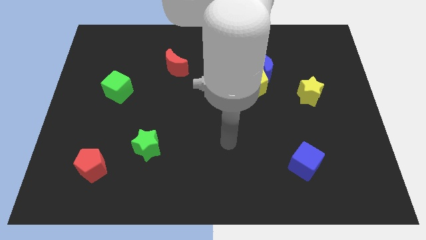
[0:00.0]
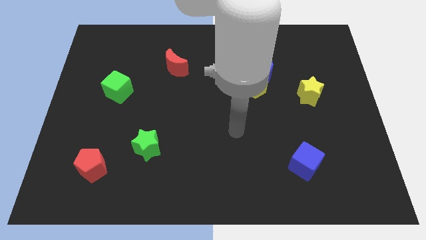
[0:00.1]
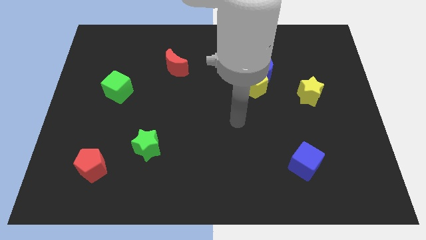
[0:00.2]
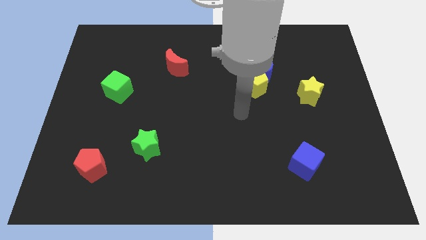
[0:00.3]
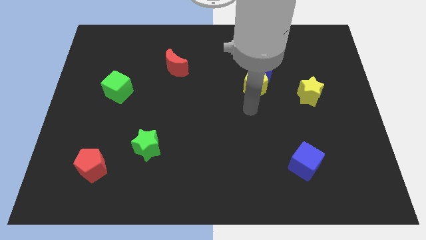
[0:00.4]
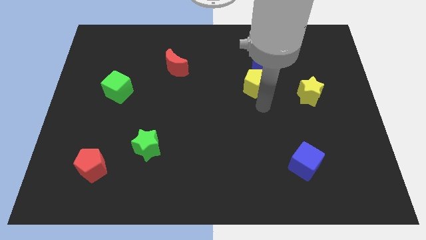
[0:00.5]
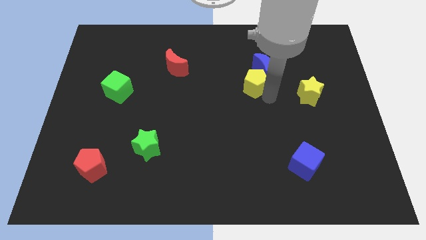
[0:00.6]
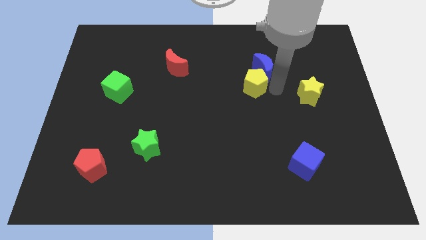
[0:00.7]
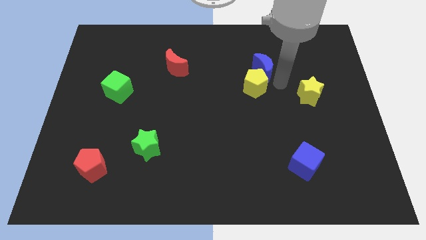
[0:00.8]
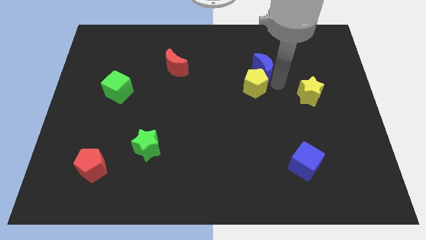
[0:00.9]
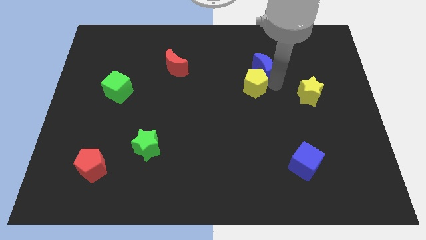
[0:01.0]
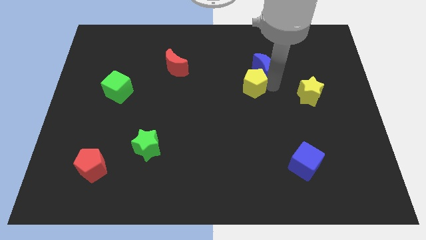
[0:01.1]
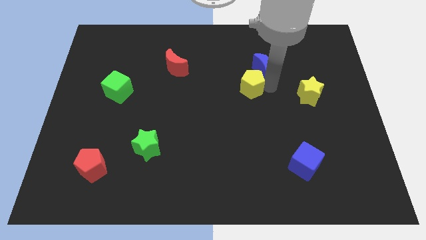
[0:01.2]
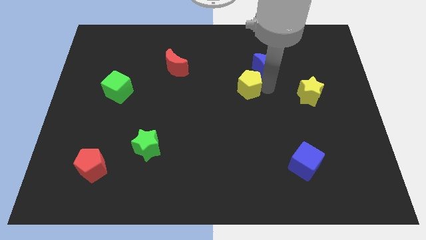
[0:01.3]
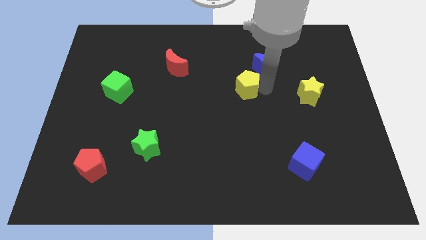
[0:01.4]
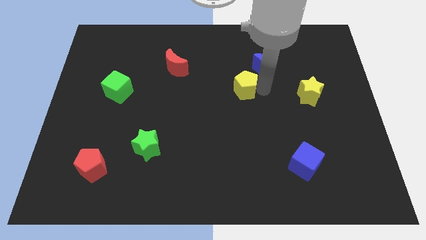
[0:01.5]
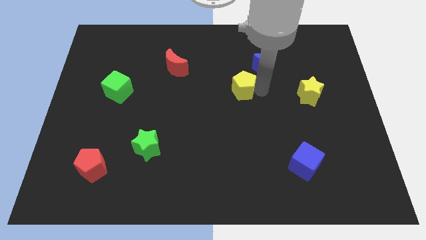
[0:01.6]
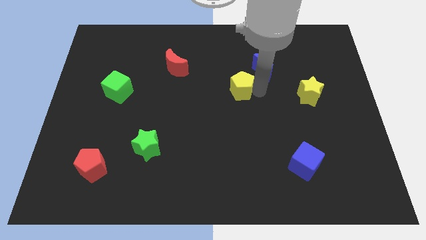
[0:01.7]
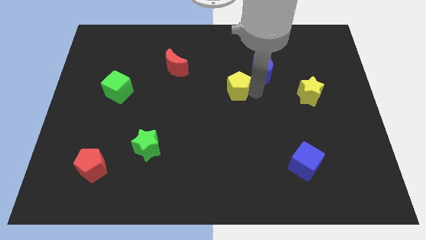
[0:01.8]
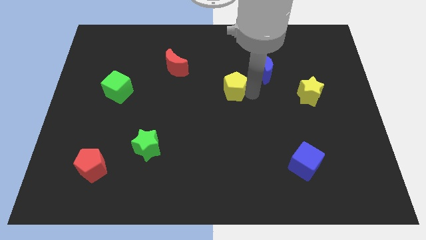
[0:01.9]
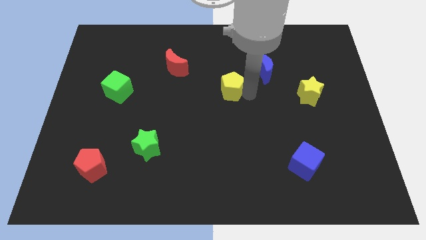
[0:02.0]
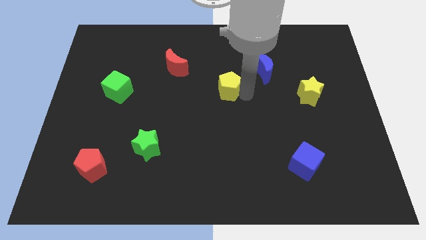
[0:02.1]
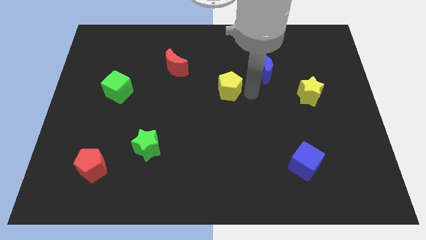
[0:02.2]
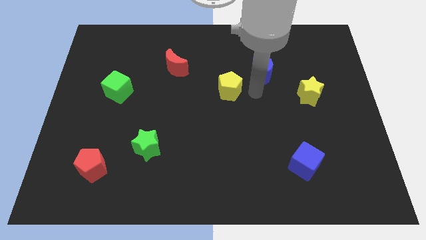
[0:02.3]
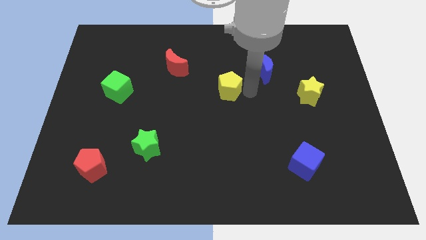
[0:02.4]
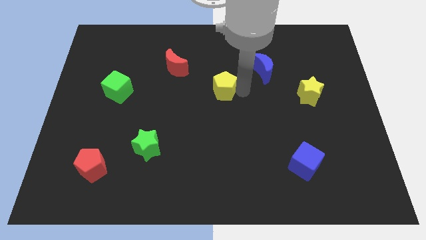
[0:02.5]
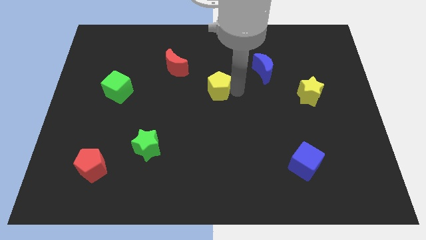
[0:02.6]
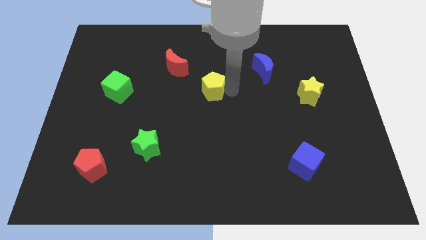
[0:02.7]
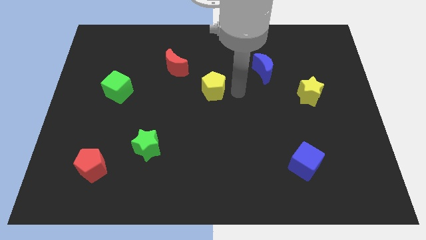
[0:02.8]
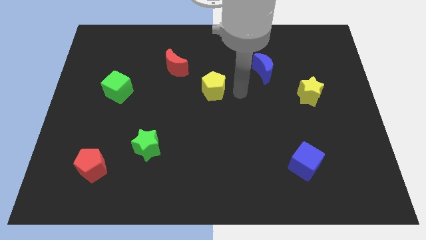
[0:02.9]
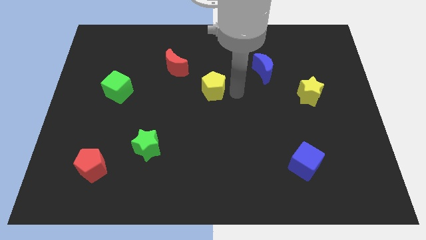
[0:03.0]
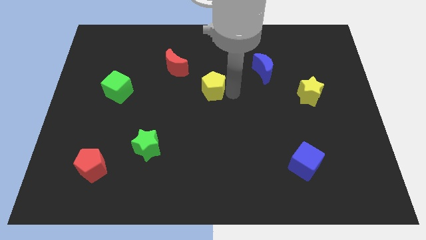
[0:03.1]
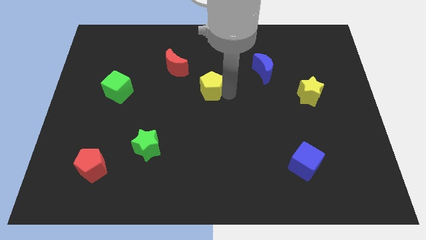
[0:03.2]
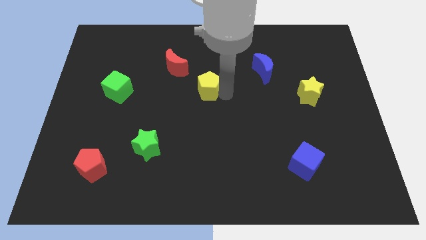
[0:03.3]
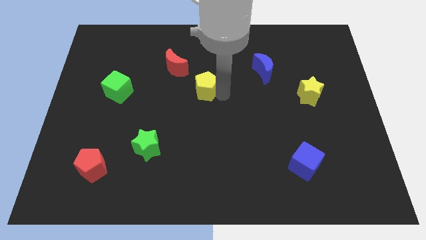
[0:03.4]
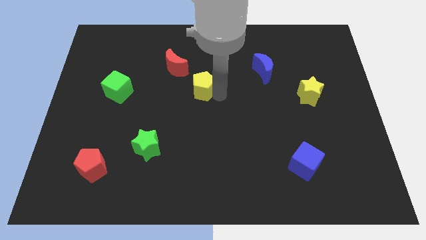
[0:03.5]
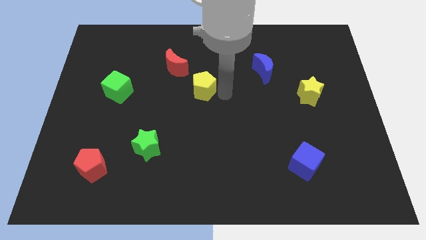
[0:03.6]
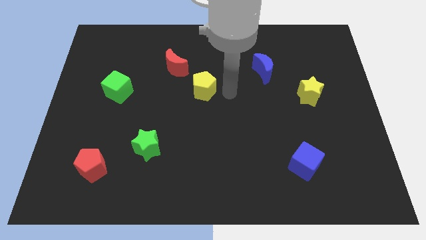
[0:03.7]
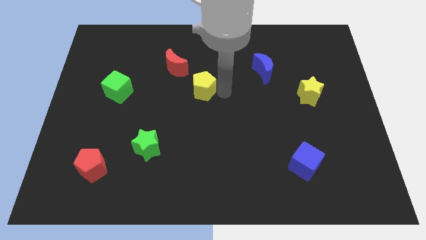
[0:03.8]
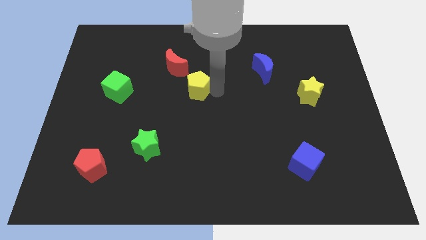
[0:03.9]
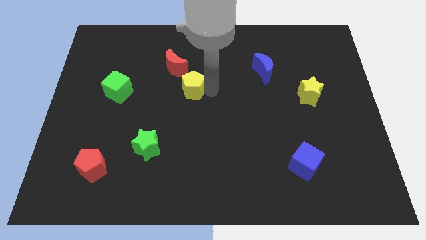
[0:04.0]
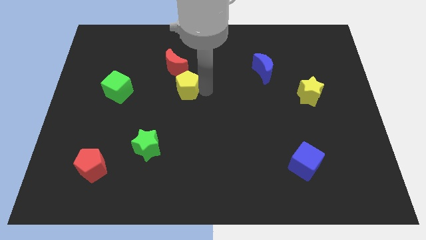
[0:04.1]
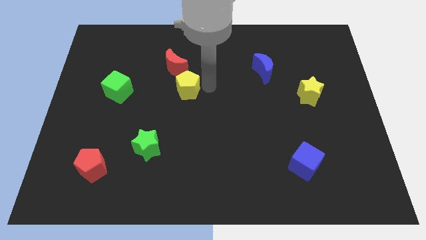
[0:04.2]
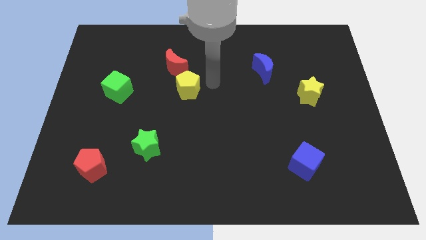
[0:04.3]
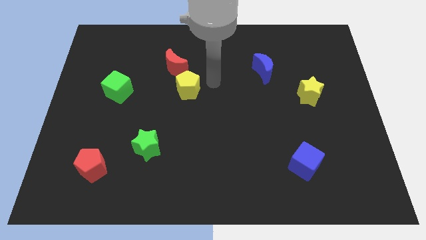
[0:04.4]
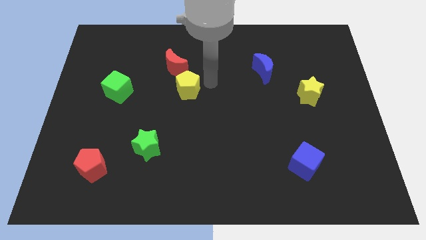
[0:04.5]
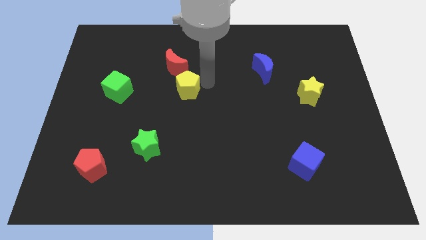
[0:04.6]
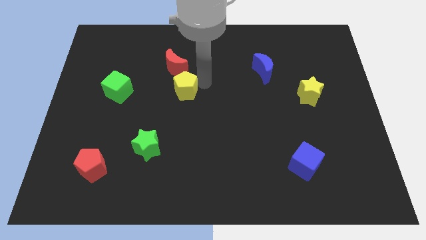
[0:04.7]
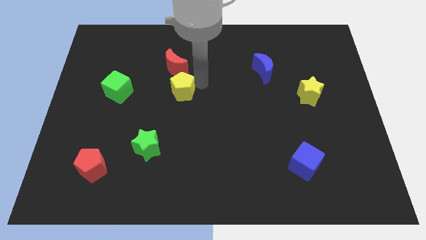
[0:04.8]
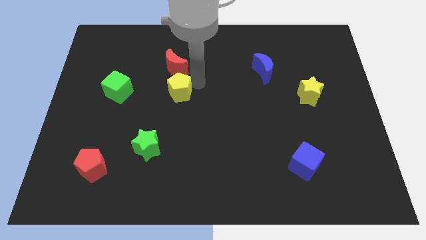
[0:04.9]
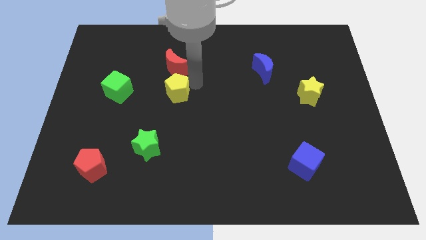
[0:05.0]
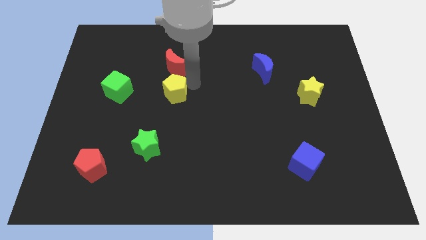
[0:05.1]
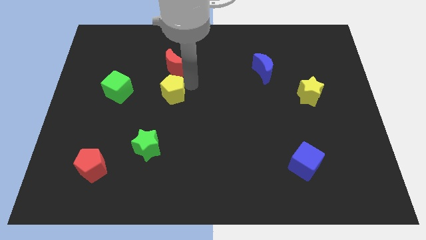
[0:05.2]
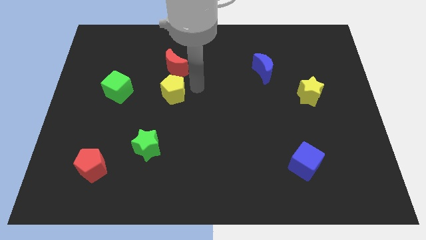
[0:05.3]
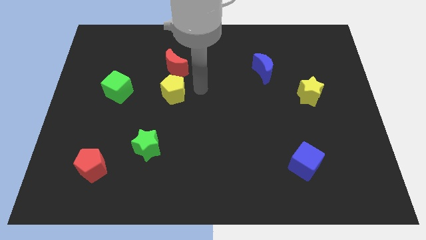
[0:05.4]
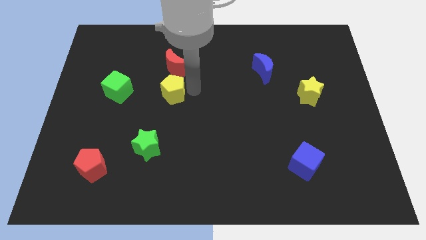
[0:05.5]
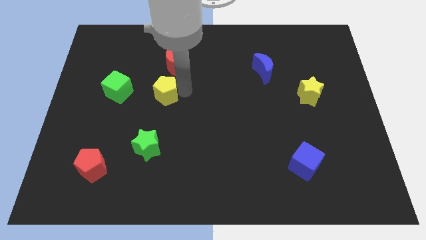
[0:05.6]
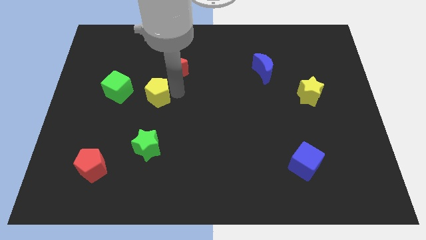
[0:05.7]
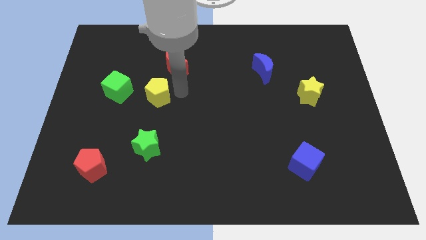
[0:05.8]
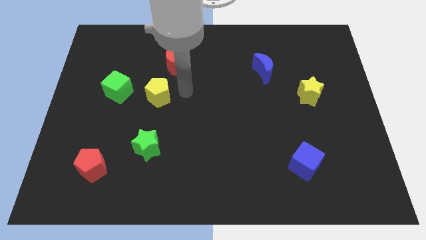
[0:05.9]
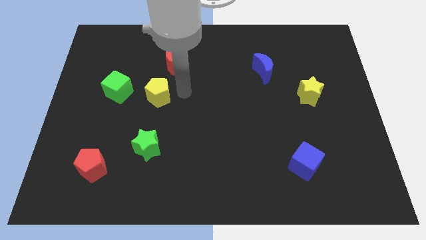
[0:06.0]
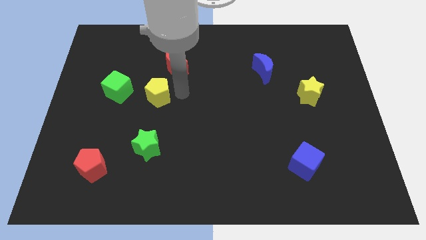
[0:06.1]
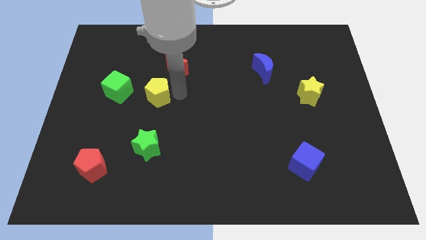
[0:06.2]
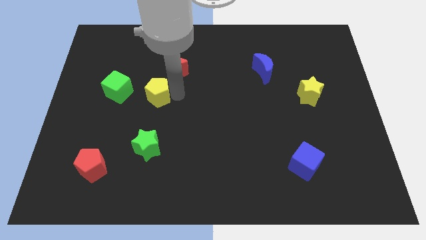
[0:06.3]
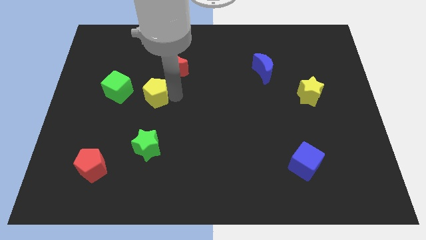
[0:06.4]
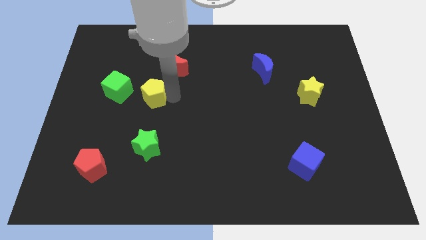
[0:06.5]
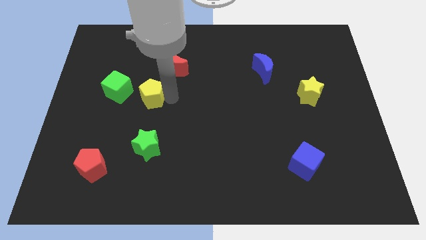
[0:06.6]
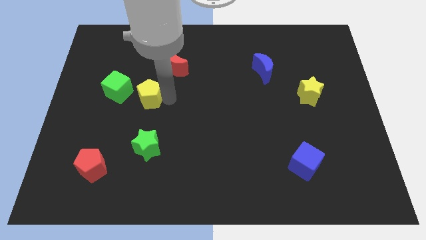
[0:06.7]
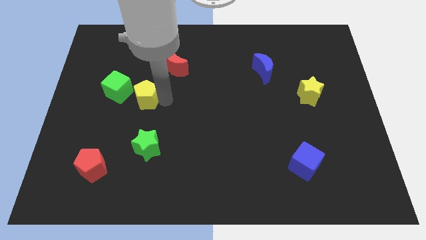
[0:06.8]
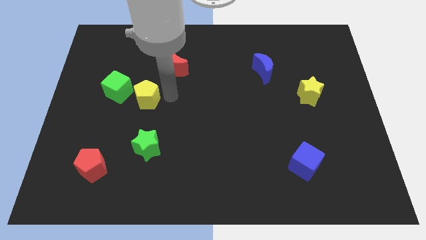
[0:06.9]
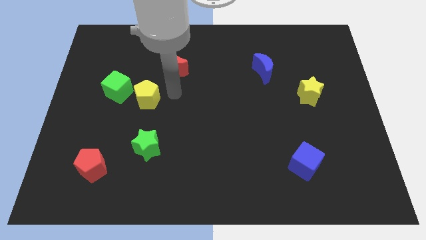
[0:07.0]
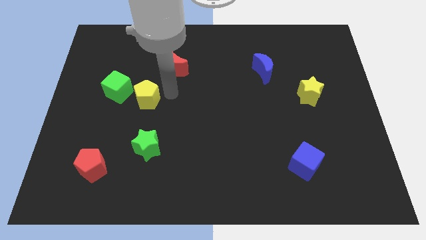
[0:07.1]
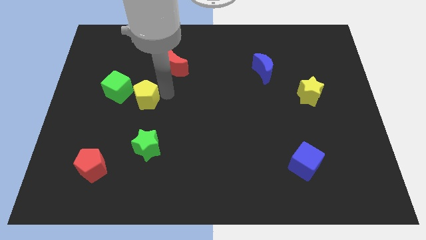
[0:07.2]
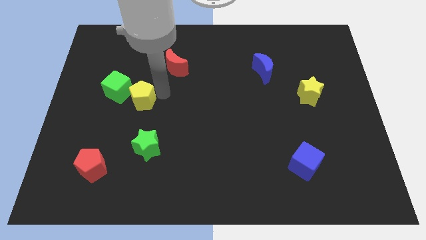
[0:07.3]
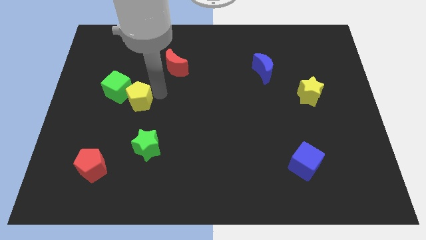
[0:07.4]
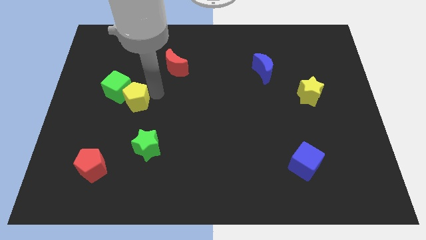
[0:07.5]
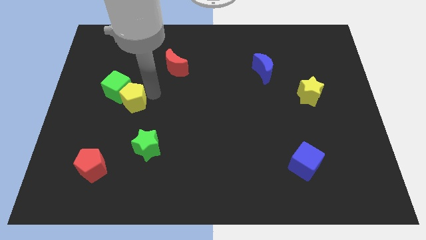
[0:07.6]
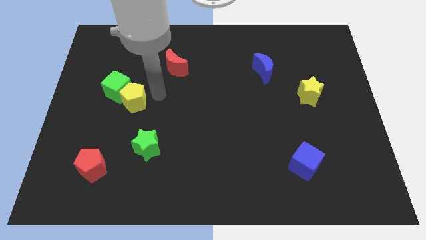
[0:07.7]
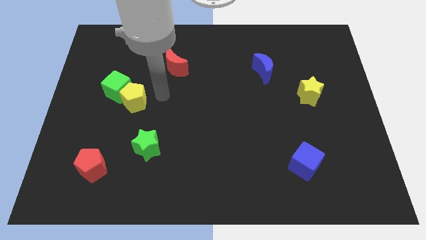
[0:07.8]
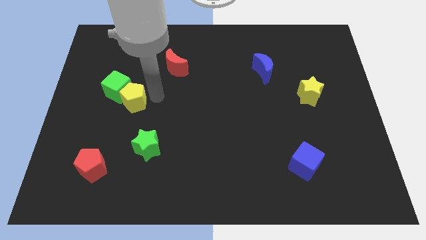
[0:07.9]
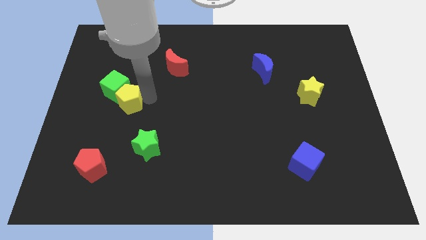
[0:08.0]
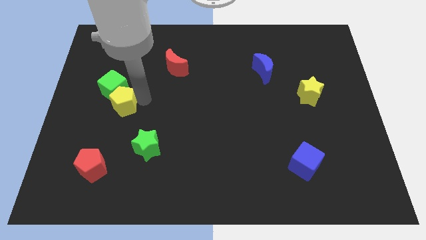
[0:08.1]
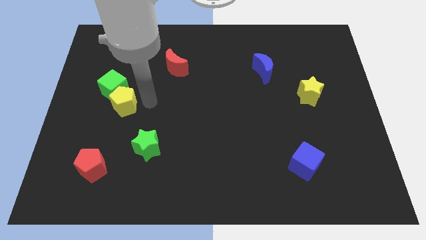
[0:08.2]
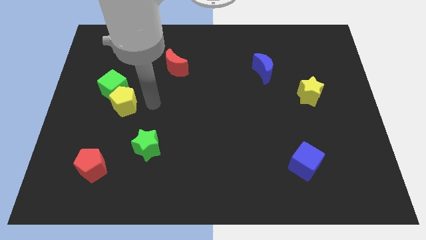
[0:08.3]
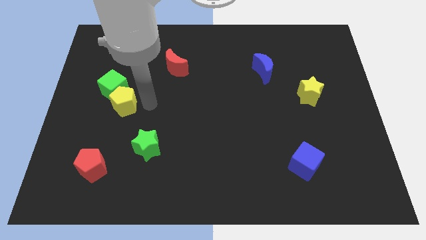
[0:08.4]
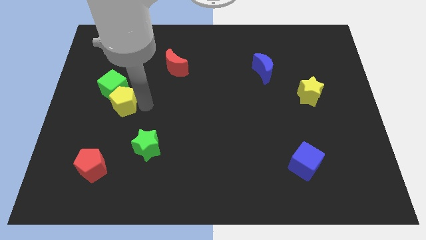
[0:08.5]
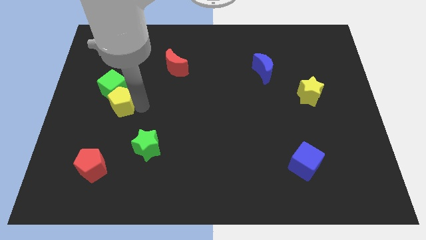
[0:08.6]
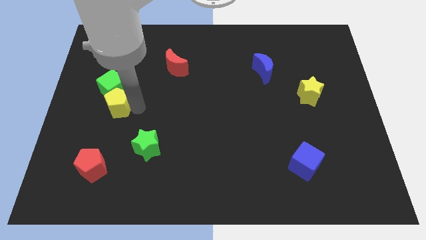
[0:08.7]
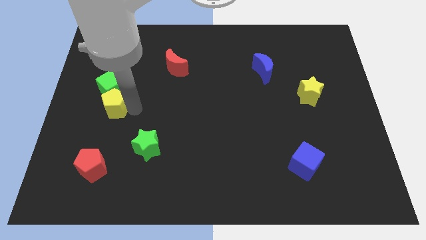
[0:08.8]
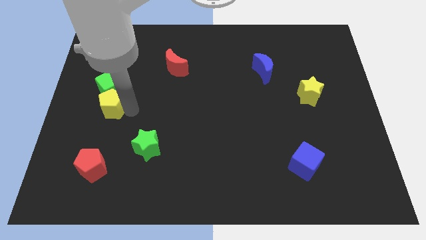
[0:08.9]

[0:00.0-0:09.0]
slide the yellow pentagon to the bottom left side of the green cube
